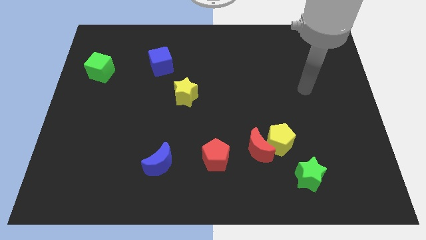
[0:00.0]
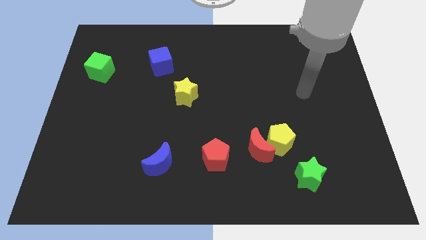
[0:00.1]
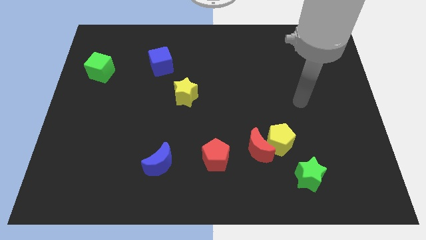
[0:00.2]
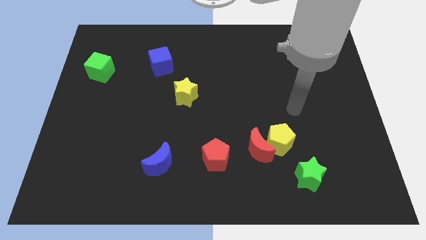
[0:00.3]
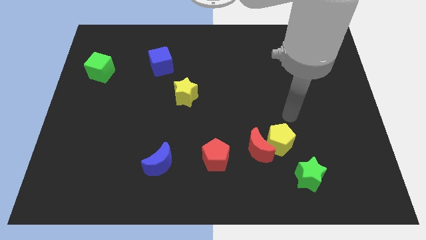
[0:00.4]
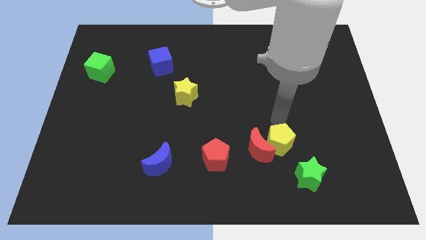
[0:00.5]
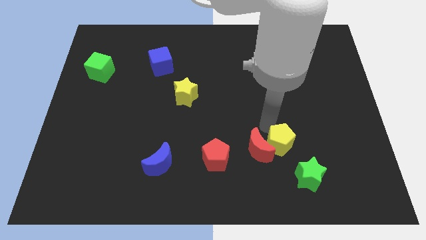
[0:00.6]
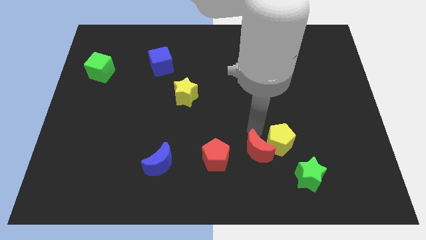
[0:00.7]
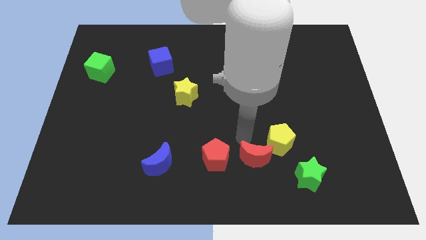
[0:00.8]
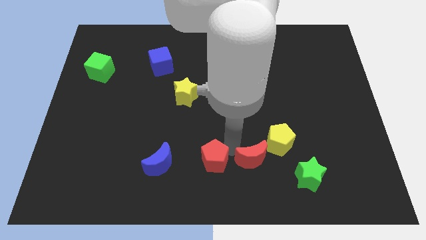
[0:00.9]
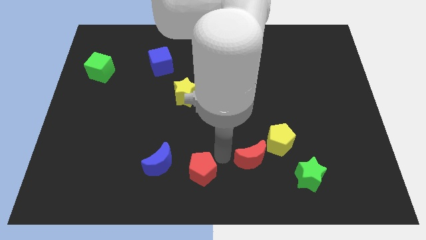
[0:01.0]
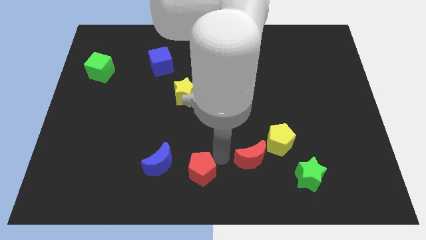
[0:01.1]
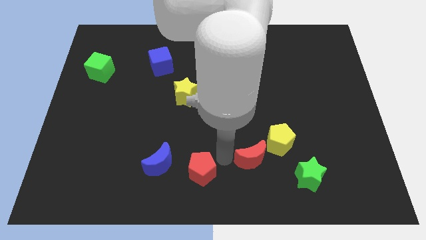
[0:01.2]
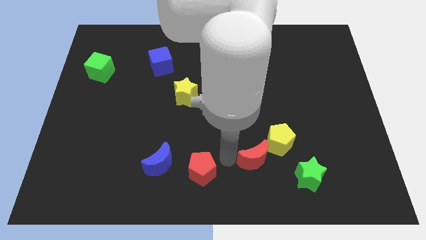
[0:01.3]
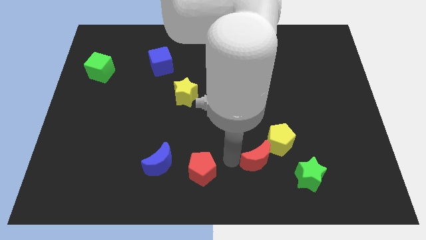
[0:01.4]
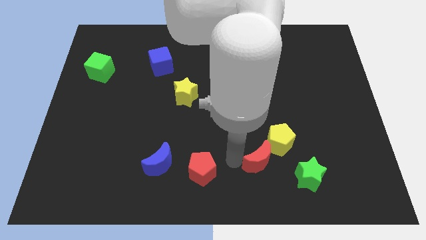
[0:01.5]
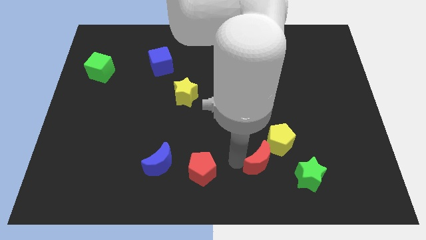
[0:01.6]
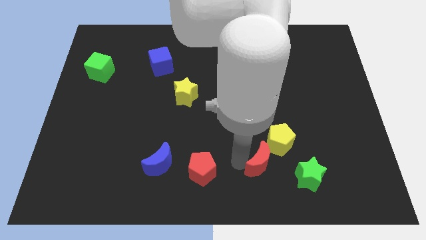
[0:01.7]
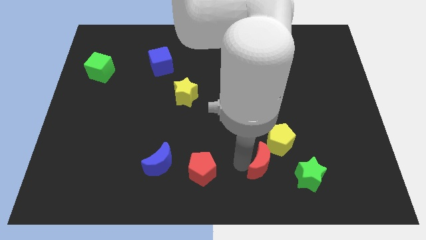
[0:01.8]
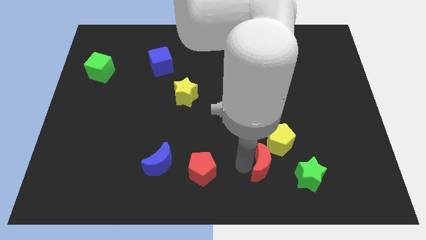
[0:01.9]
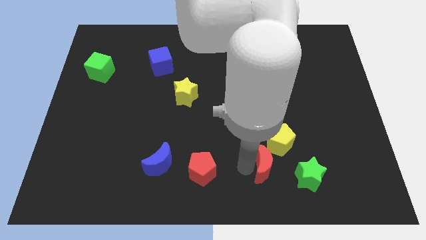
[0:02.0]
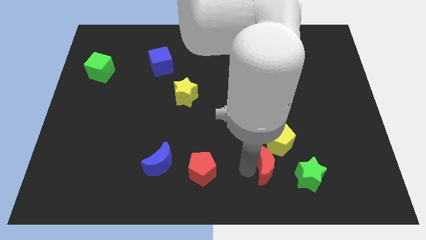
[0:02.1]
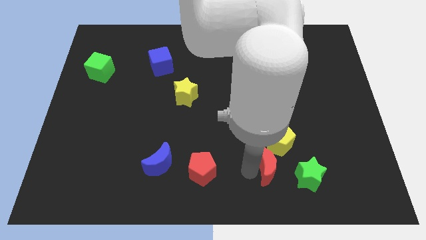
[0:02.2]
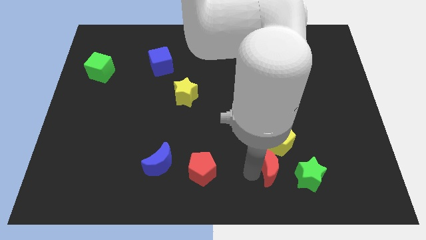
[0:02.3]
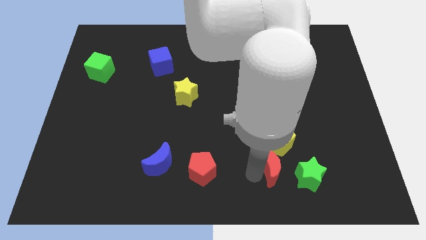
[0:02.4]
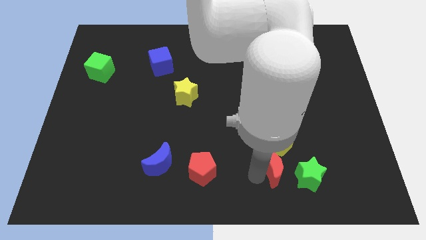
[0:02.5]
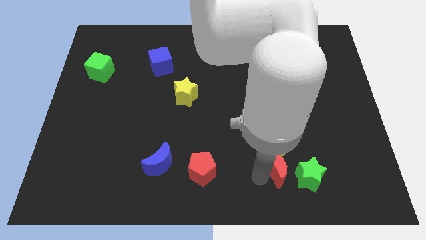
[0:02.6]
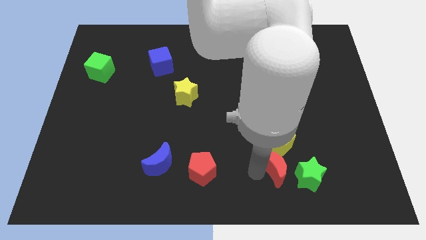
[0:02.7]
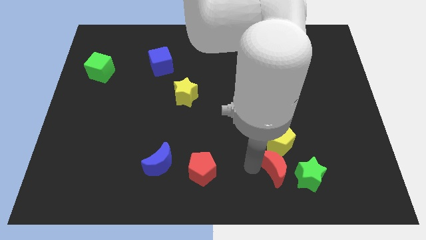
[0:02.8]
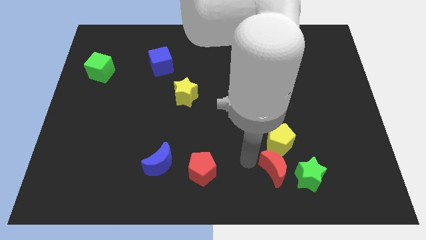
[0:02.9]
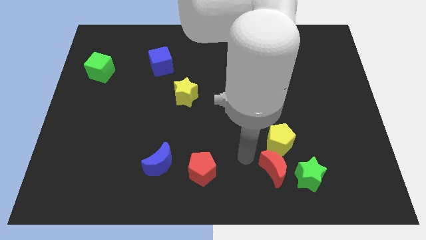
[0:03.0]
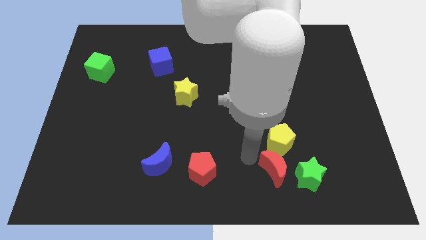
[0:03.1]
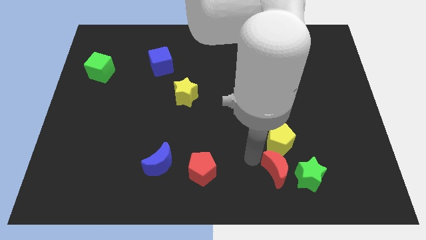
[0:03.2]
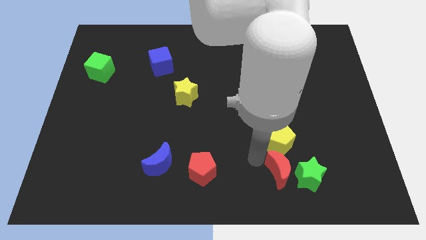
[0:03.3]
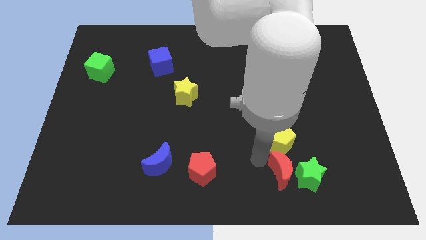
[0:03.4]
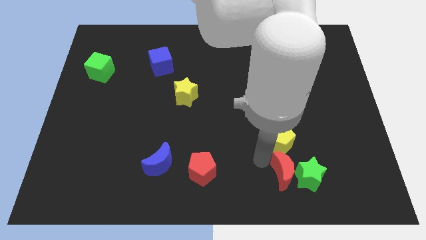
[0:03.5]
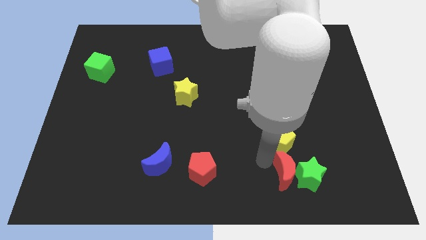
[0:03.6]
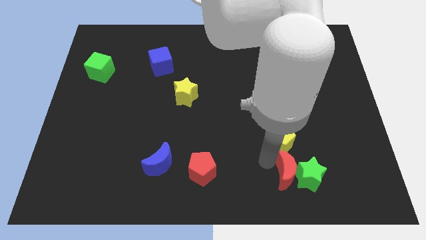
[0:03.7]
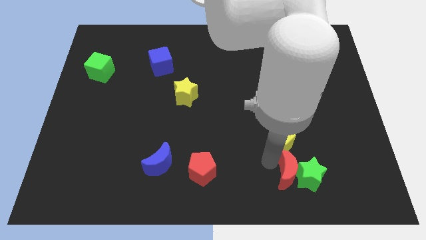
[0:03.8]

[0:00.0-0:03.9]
separate the red moon from the yellow pentagon and red pentagon

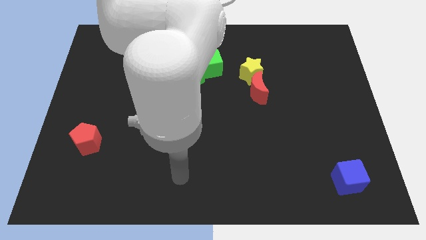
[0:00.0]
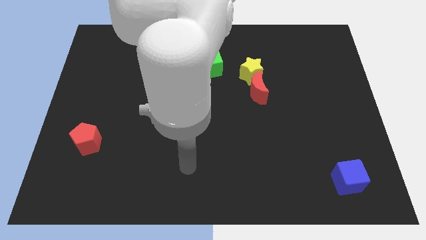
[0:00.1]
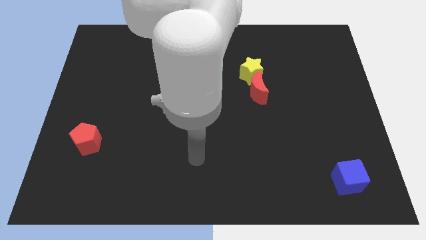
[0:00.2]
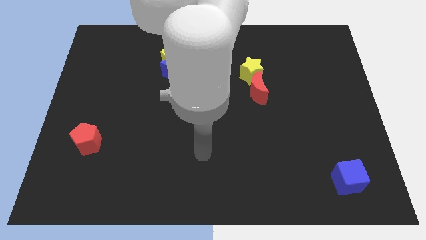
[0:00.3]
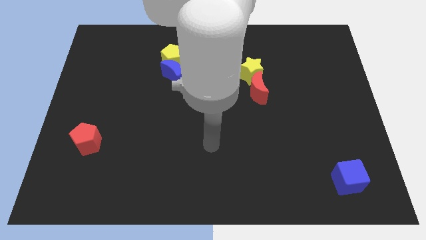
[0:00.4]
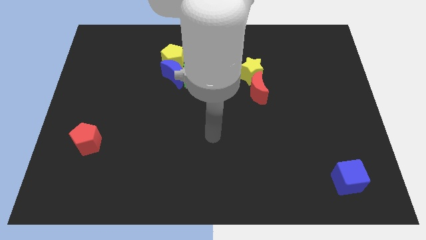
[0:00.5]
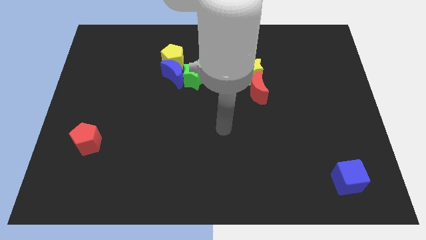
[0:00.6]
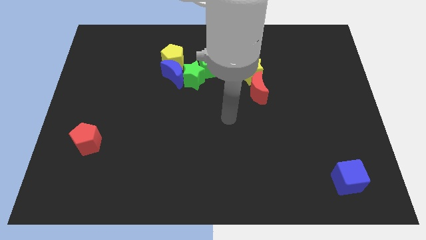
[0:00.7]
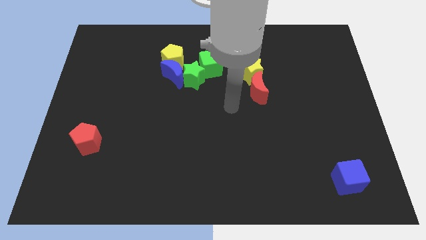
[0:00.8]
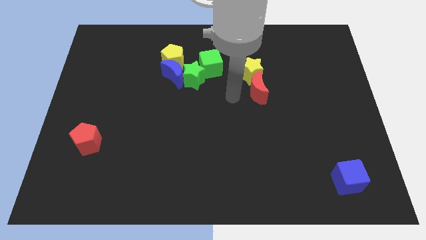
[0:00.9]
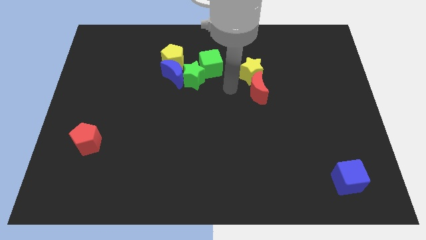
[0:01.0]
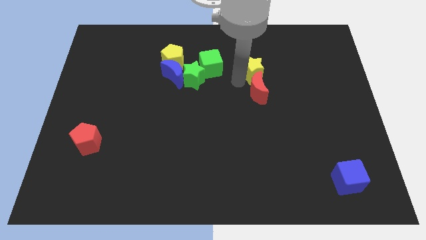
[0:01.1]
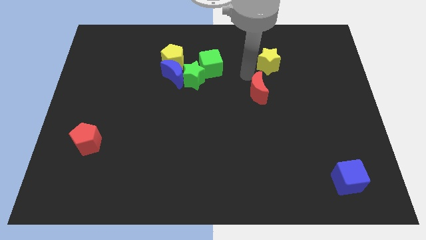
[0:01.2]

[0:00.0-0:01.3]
separate the red moon from the yellow star

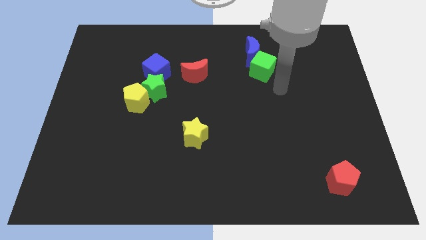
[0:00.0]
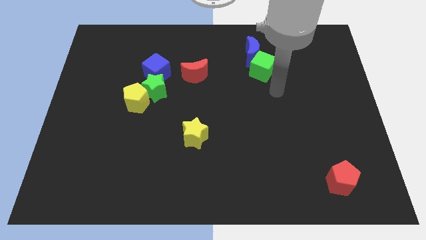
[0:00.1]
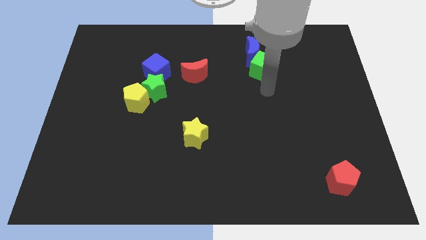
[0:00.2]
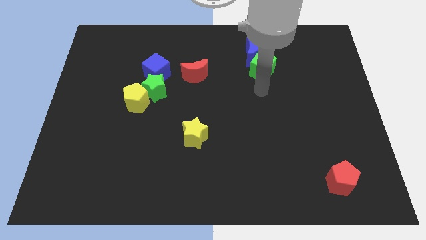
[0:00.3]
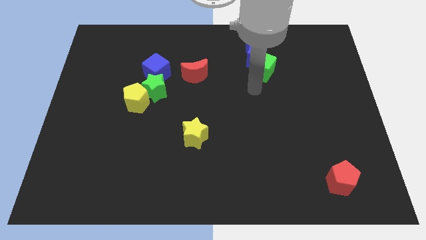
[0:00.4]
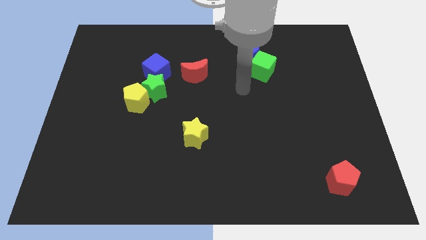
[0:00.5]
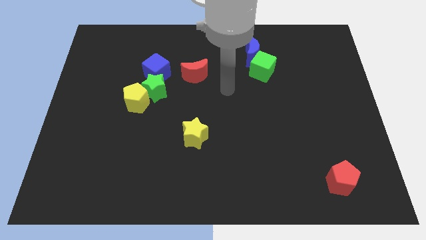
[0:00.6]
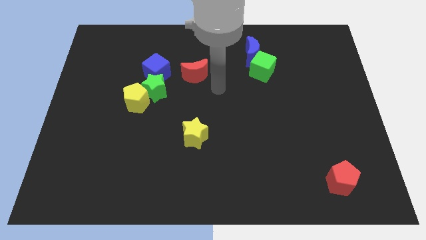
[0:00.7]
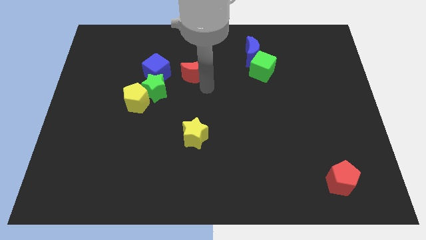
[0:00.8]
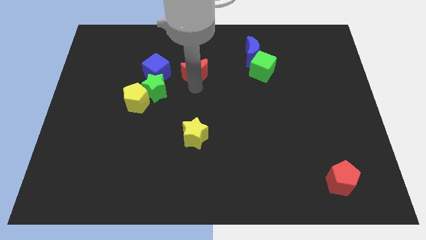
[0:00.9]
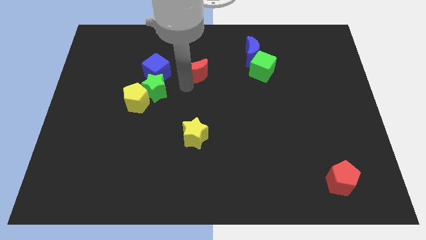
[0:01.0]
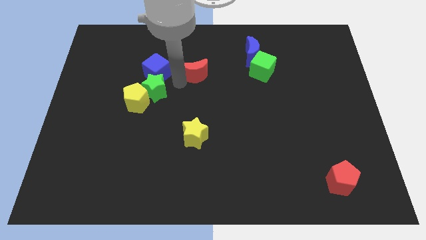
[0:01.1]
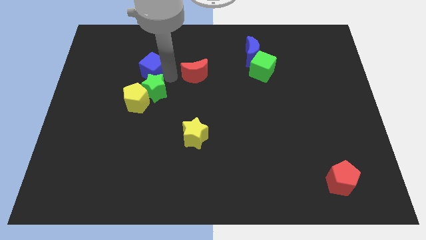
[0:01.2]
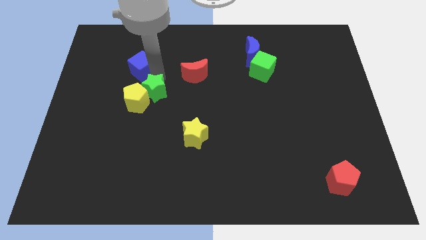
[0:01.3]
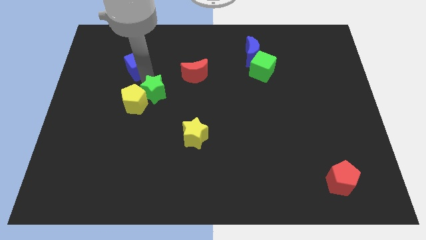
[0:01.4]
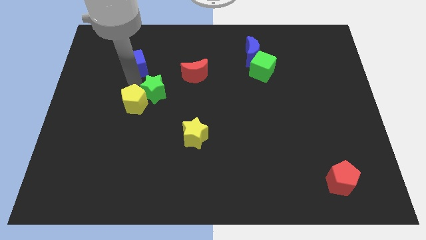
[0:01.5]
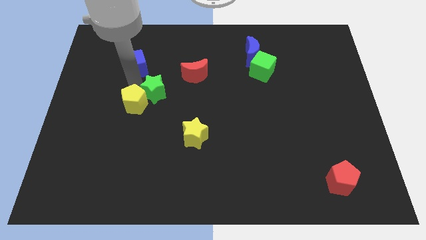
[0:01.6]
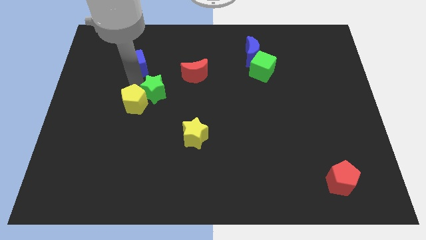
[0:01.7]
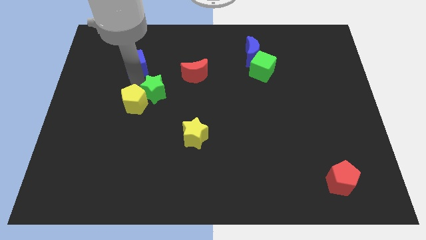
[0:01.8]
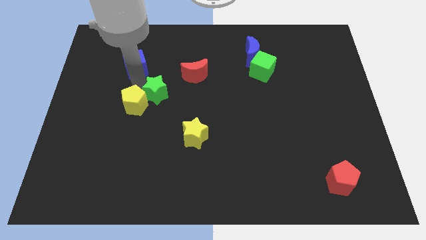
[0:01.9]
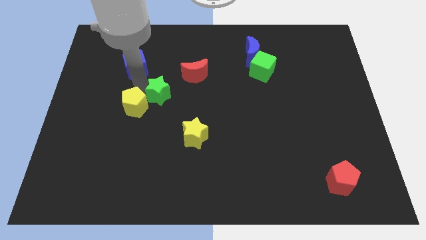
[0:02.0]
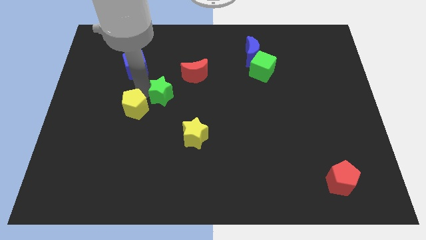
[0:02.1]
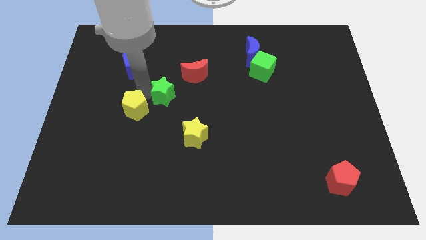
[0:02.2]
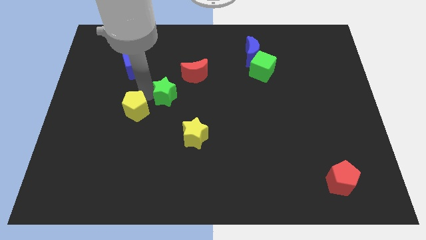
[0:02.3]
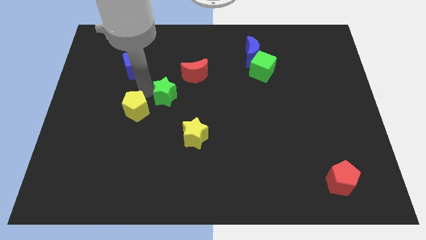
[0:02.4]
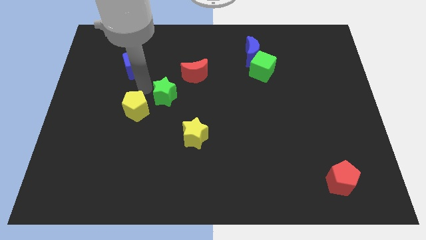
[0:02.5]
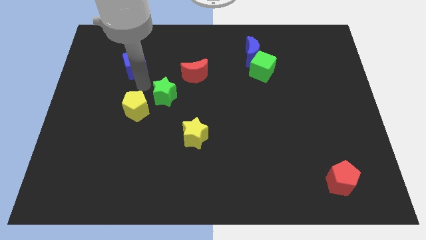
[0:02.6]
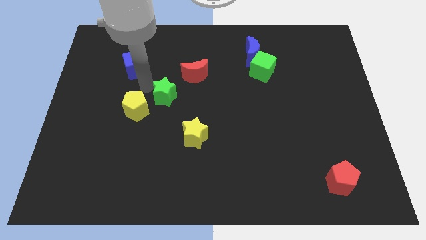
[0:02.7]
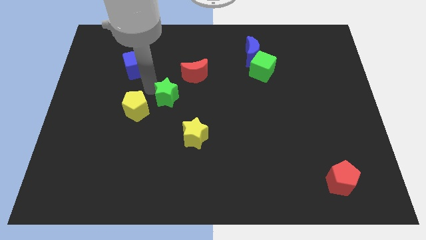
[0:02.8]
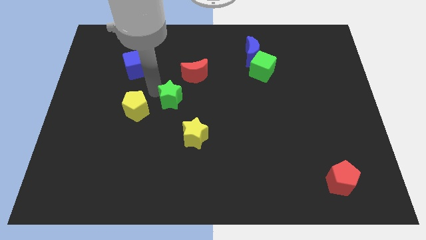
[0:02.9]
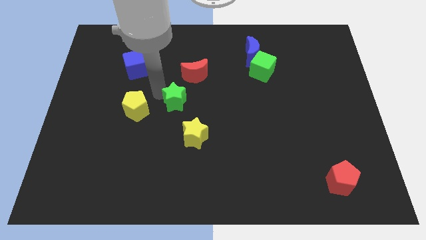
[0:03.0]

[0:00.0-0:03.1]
move the green star away from the yellow pentagon and blue cube

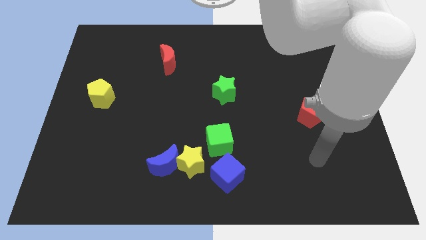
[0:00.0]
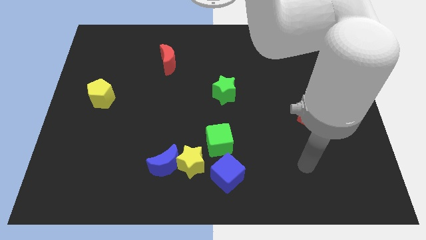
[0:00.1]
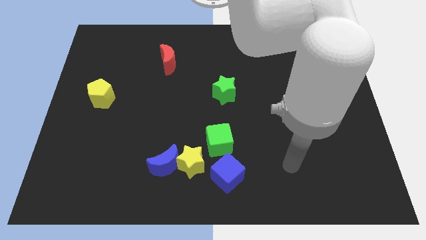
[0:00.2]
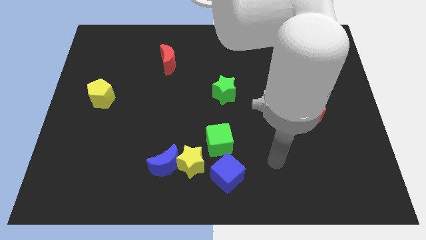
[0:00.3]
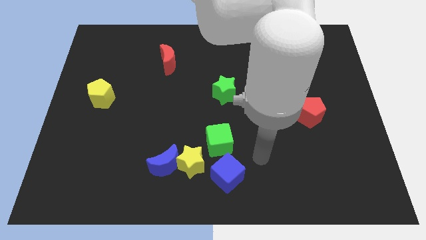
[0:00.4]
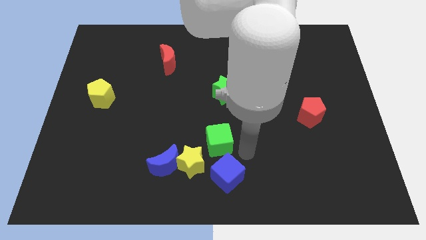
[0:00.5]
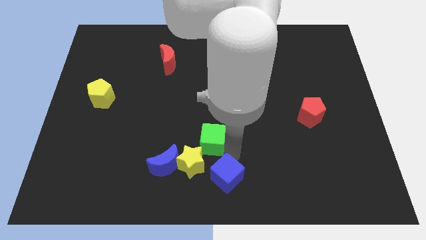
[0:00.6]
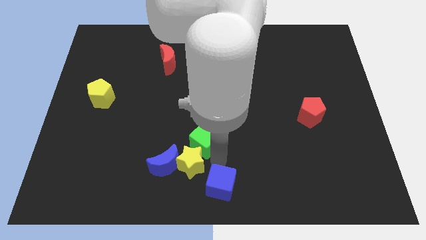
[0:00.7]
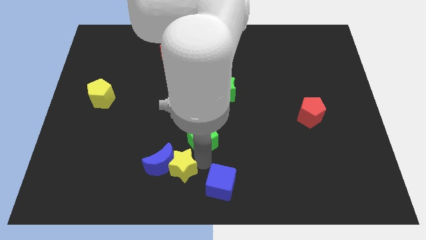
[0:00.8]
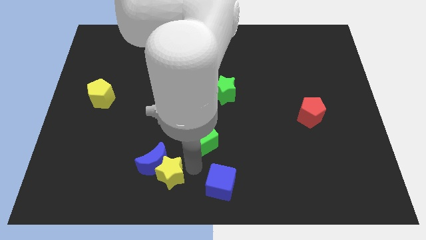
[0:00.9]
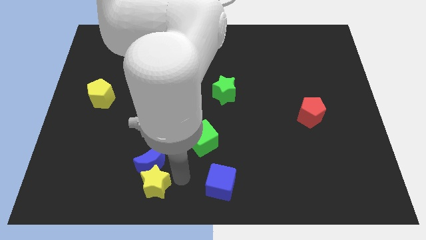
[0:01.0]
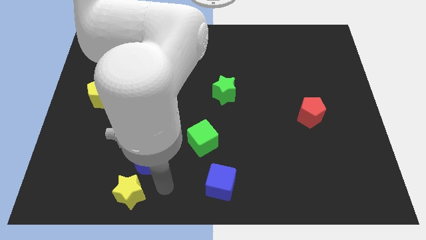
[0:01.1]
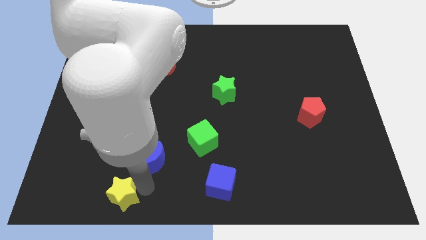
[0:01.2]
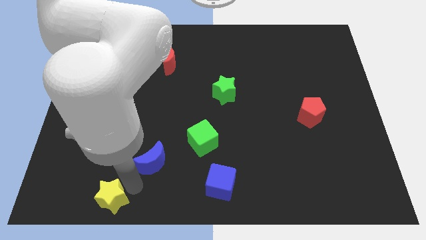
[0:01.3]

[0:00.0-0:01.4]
pull the blue moon apart from the yellow star
